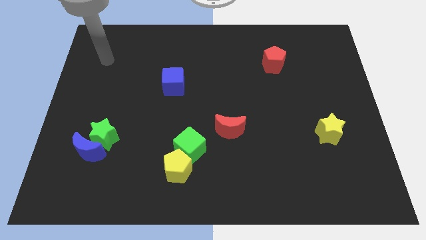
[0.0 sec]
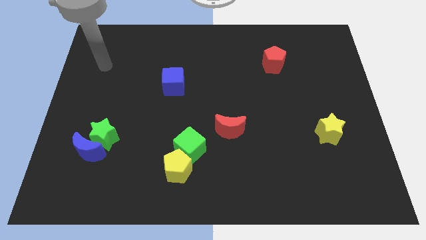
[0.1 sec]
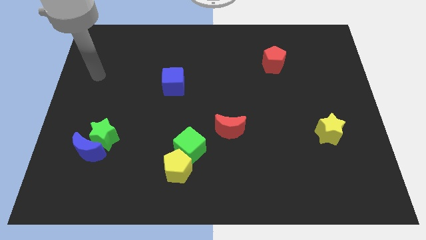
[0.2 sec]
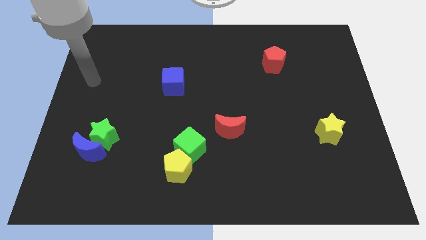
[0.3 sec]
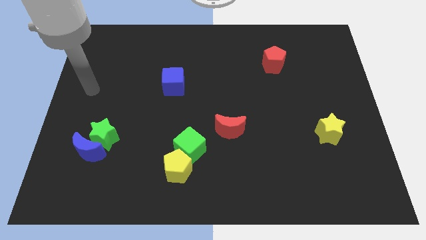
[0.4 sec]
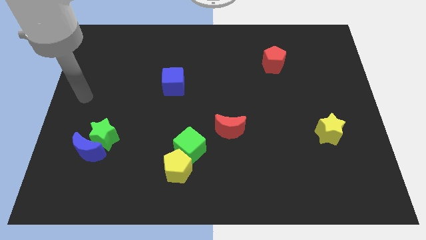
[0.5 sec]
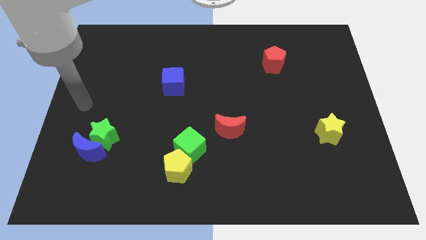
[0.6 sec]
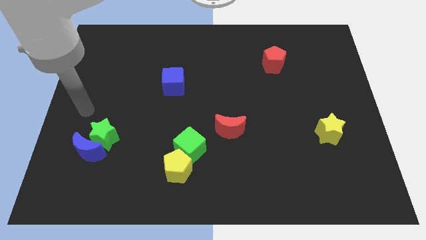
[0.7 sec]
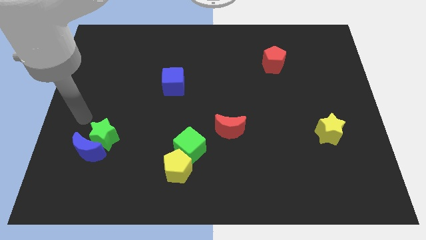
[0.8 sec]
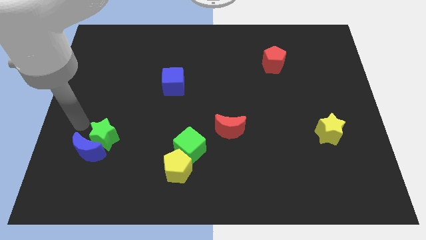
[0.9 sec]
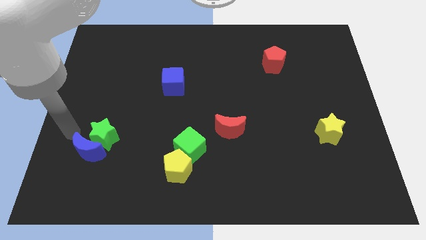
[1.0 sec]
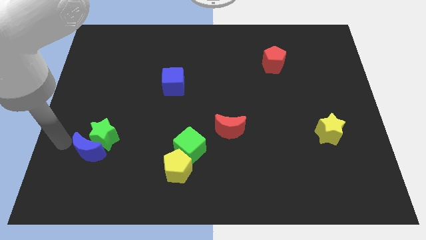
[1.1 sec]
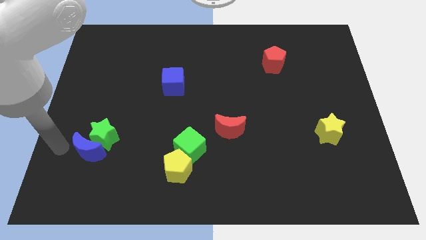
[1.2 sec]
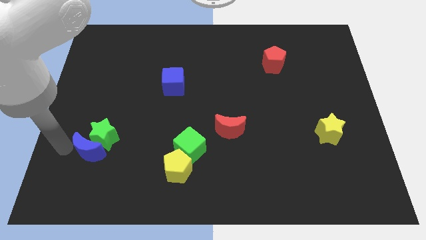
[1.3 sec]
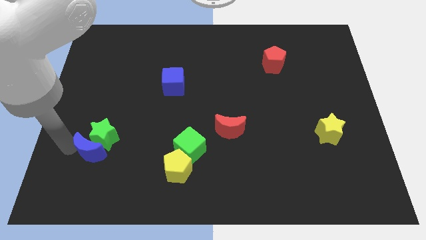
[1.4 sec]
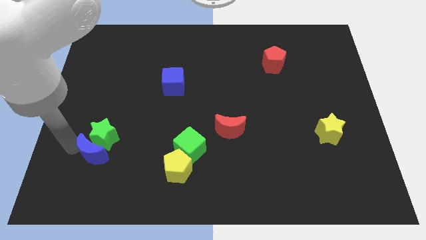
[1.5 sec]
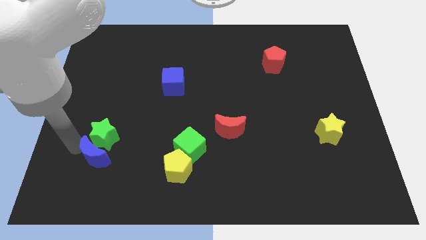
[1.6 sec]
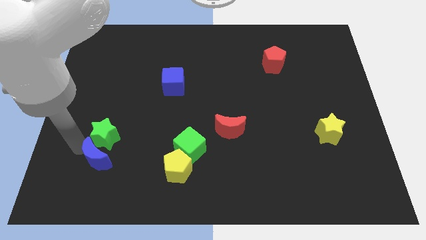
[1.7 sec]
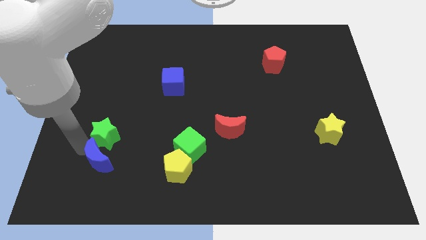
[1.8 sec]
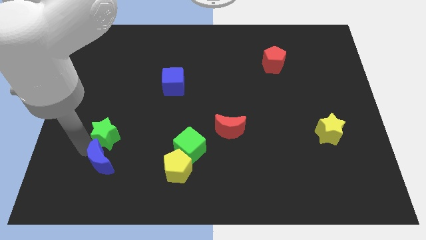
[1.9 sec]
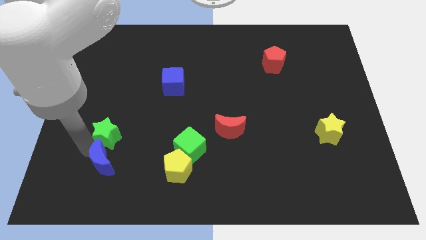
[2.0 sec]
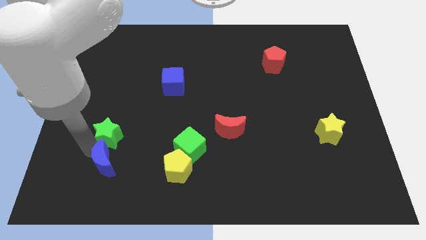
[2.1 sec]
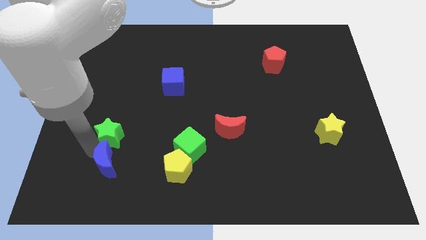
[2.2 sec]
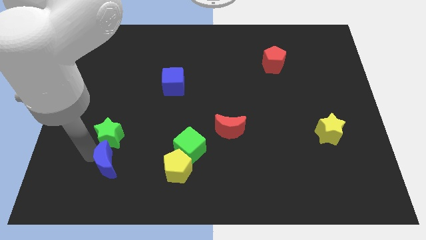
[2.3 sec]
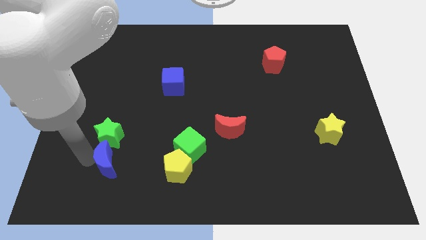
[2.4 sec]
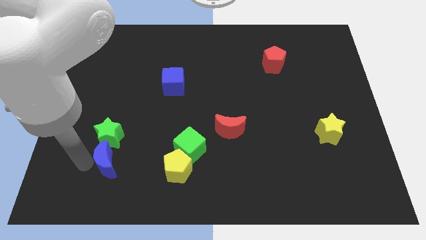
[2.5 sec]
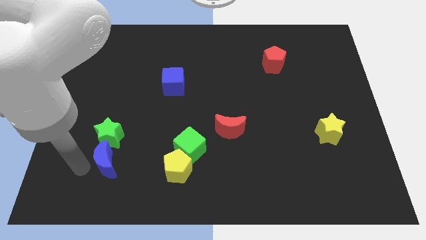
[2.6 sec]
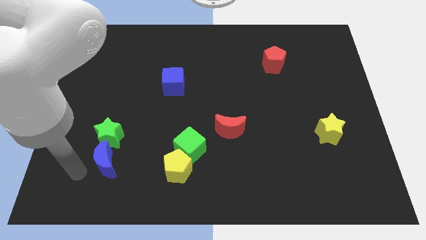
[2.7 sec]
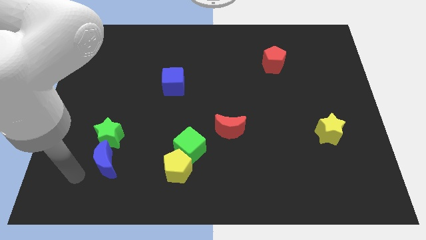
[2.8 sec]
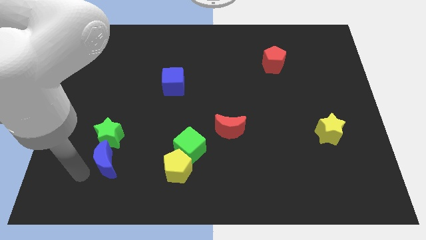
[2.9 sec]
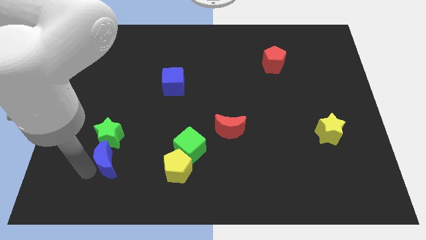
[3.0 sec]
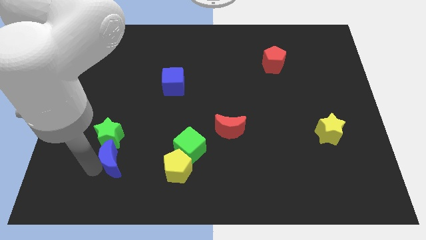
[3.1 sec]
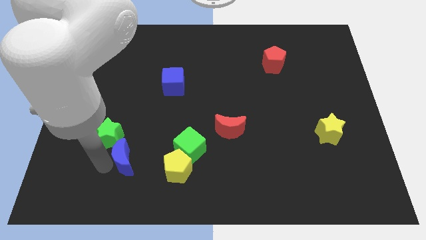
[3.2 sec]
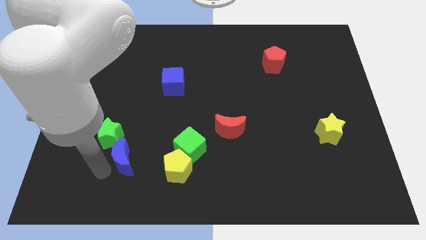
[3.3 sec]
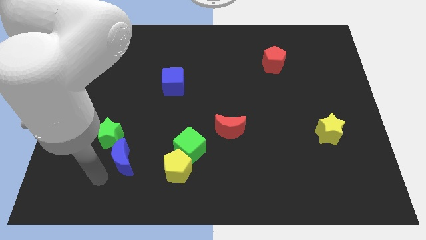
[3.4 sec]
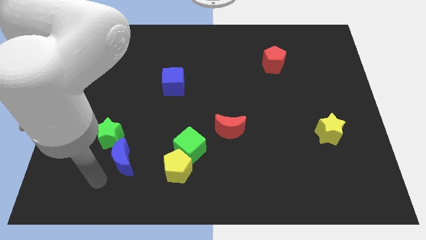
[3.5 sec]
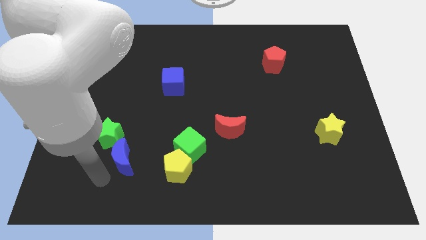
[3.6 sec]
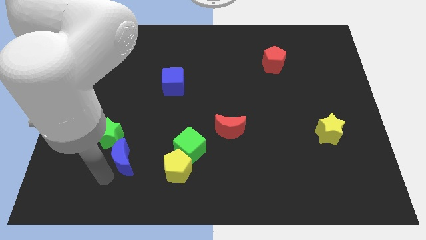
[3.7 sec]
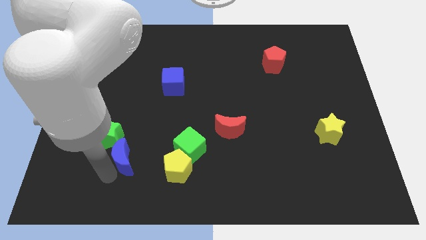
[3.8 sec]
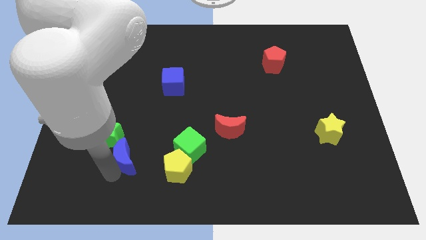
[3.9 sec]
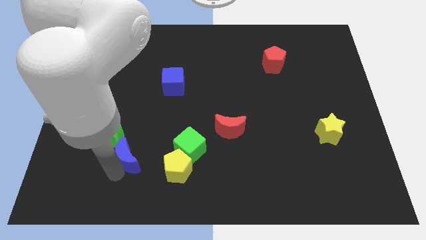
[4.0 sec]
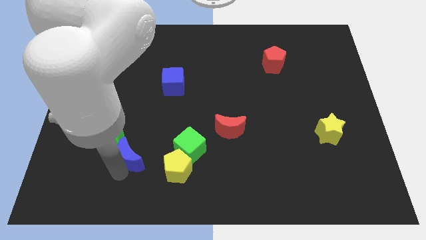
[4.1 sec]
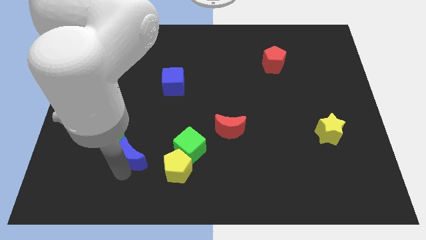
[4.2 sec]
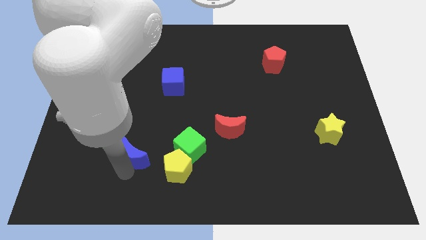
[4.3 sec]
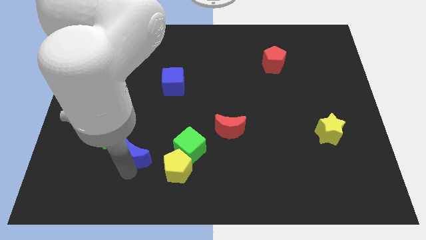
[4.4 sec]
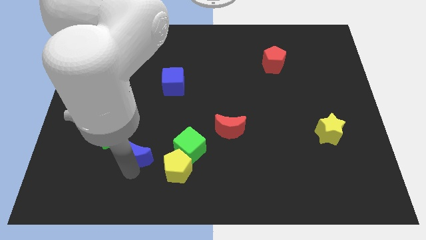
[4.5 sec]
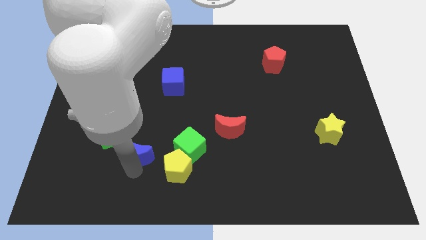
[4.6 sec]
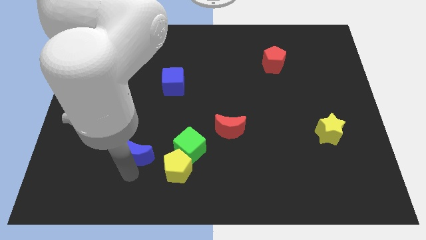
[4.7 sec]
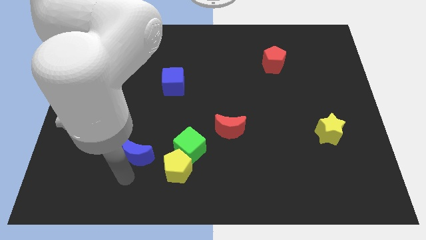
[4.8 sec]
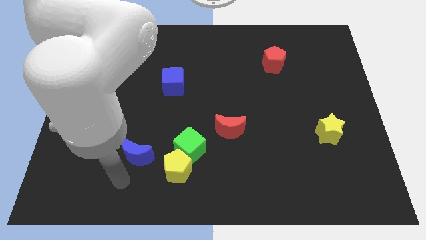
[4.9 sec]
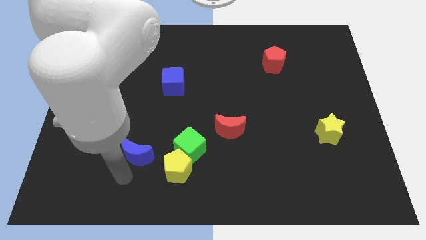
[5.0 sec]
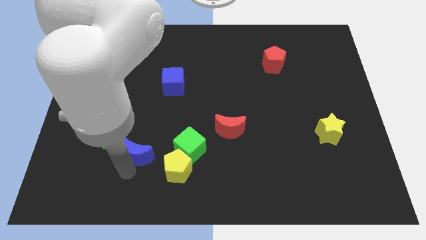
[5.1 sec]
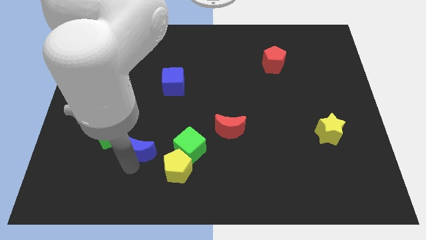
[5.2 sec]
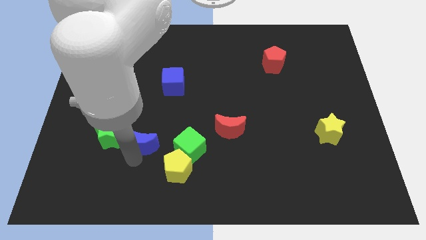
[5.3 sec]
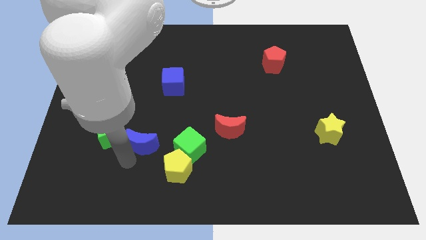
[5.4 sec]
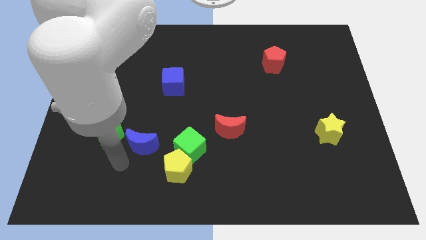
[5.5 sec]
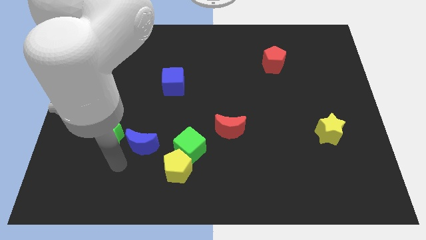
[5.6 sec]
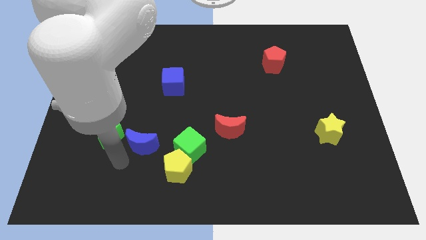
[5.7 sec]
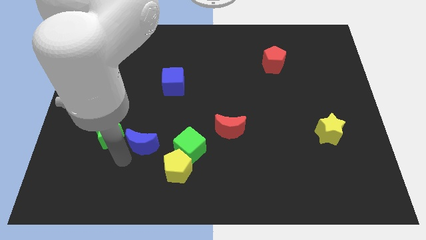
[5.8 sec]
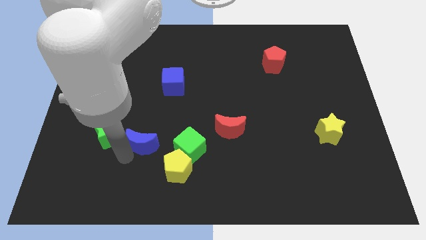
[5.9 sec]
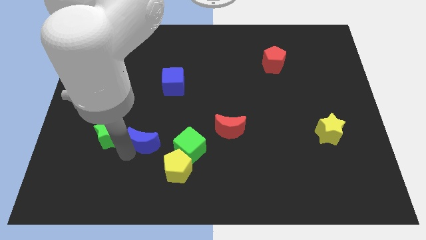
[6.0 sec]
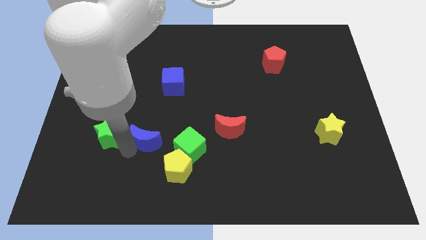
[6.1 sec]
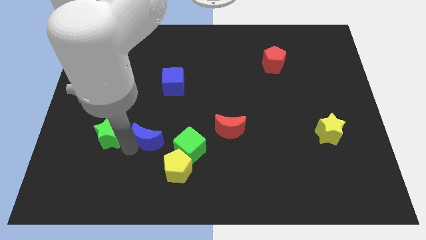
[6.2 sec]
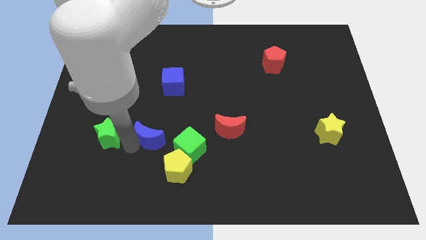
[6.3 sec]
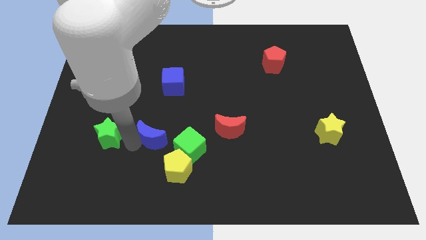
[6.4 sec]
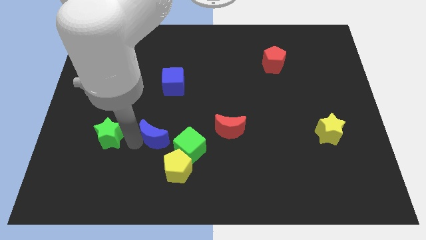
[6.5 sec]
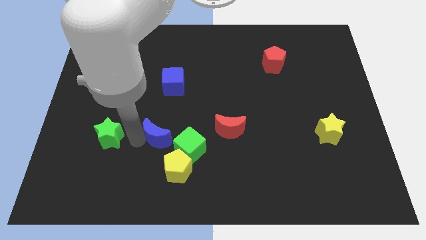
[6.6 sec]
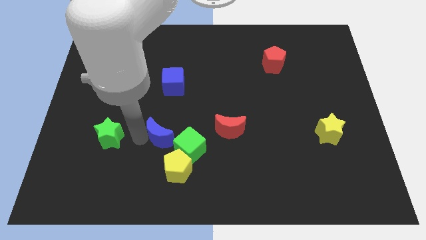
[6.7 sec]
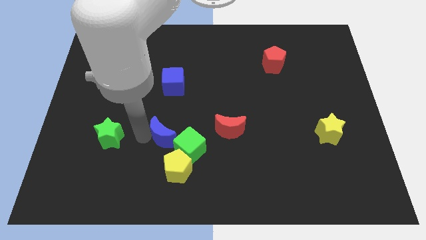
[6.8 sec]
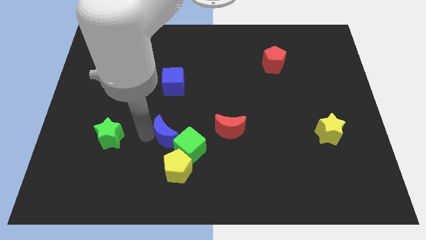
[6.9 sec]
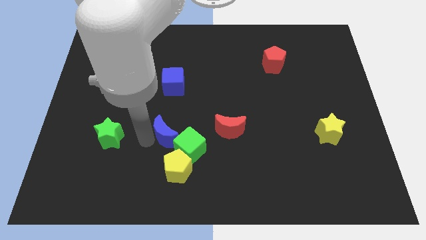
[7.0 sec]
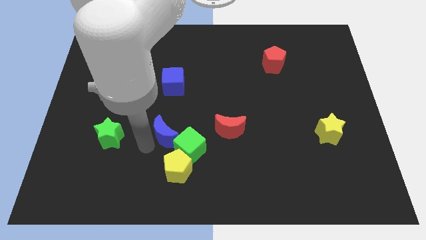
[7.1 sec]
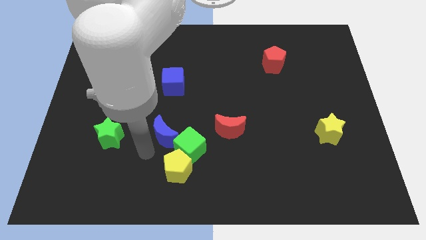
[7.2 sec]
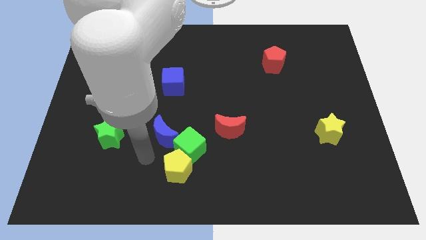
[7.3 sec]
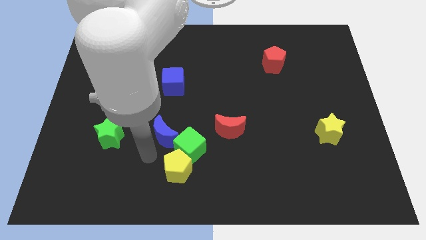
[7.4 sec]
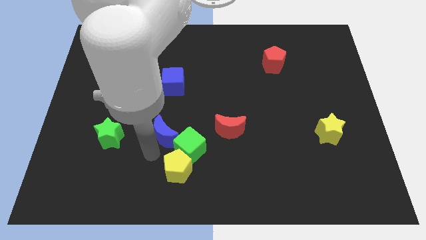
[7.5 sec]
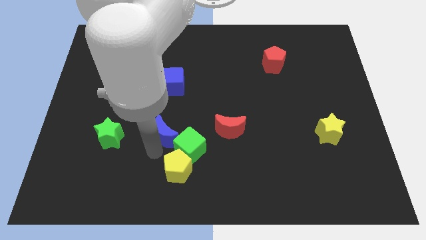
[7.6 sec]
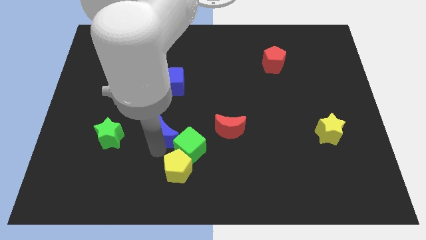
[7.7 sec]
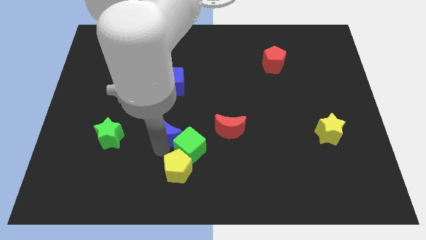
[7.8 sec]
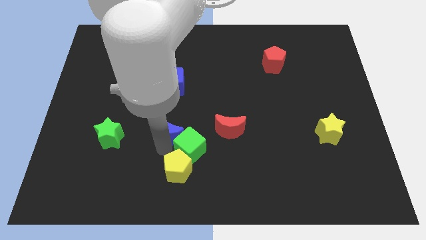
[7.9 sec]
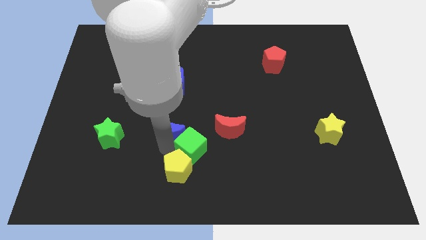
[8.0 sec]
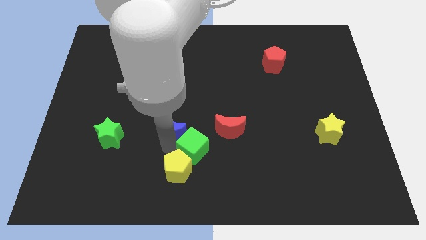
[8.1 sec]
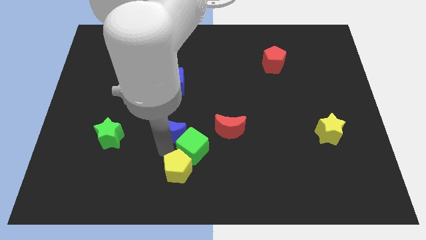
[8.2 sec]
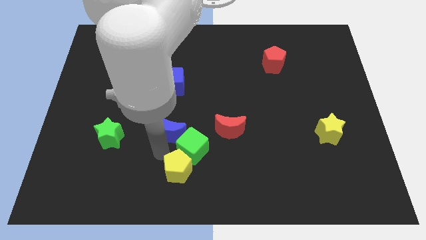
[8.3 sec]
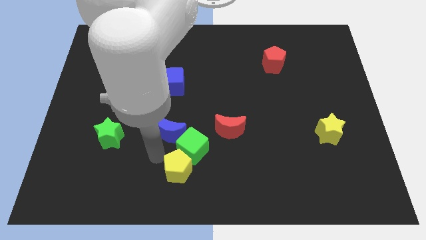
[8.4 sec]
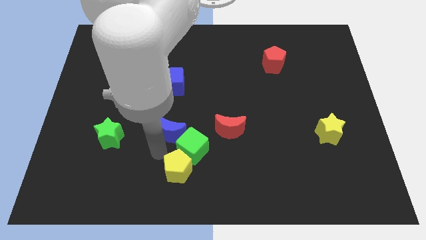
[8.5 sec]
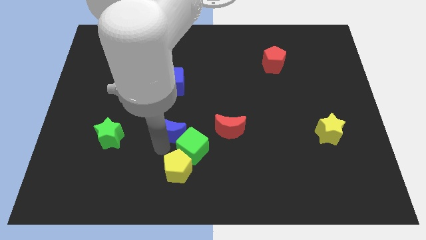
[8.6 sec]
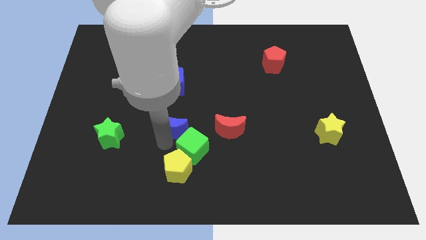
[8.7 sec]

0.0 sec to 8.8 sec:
push the blue moon to the middle
